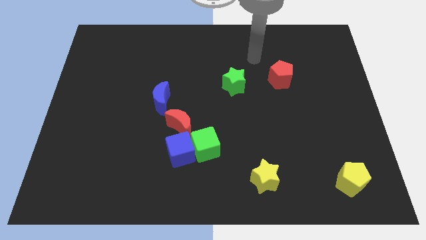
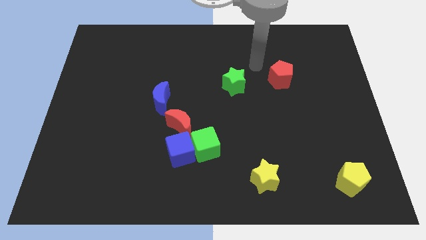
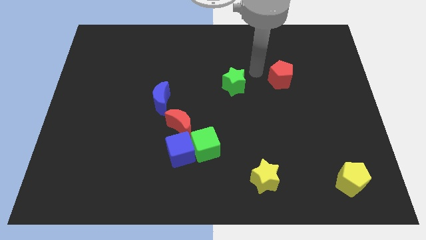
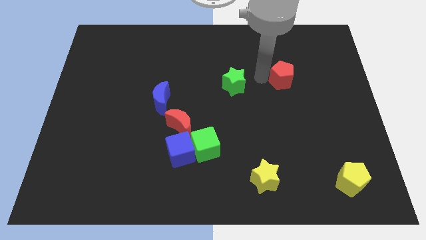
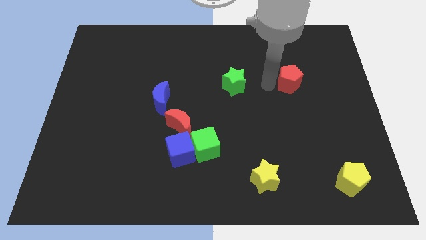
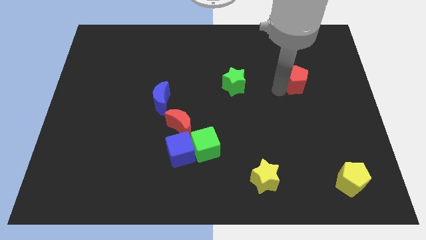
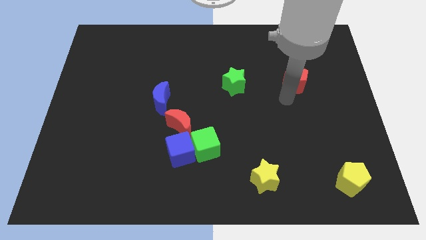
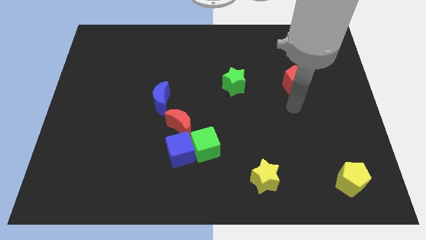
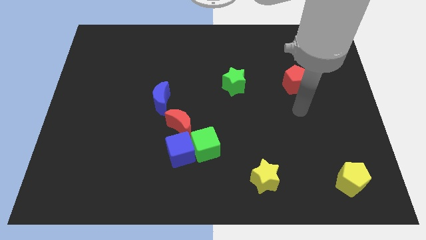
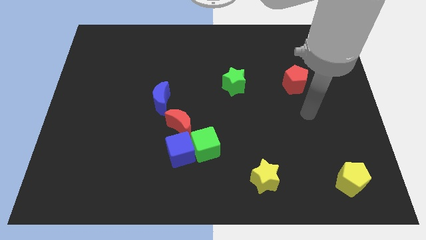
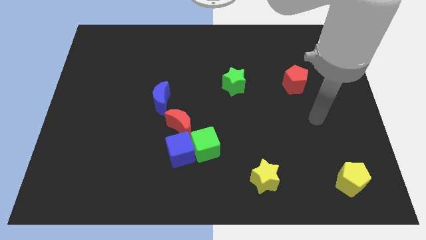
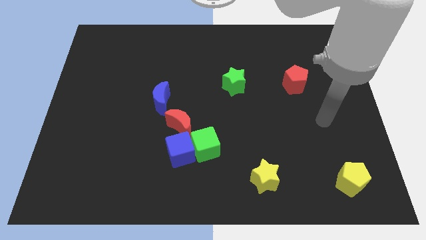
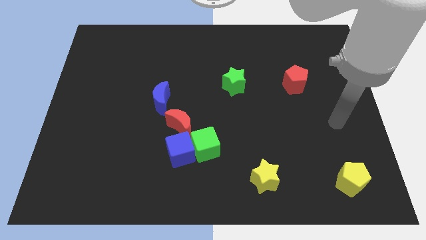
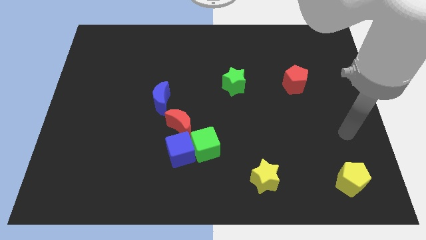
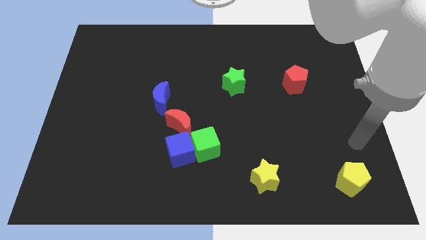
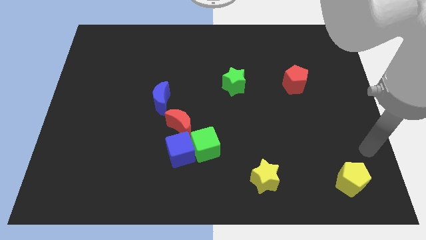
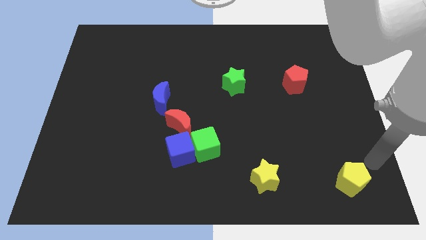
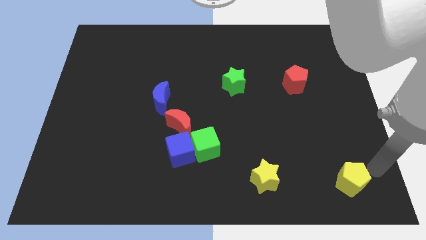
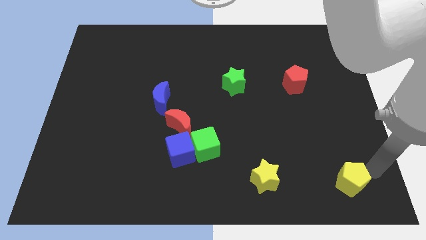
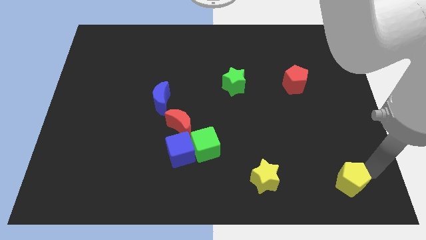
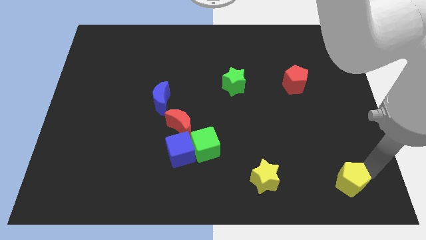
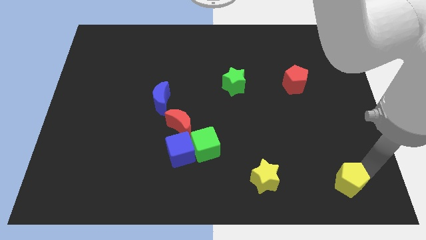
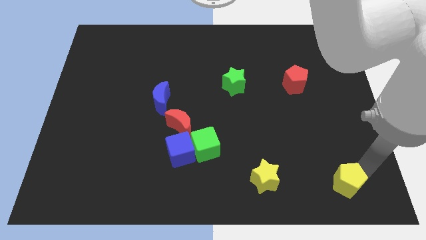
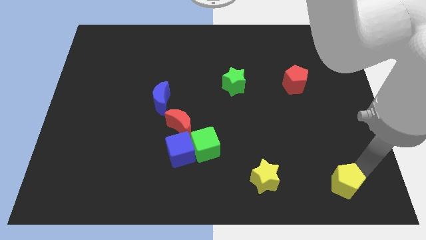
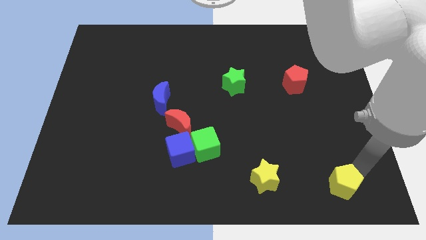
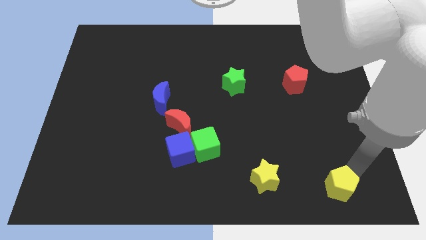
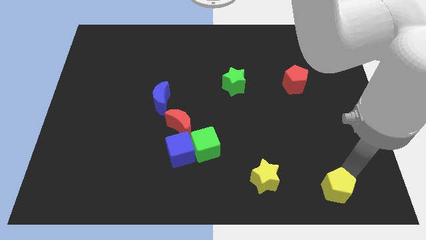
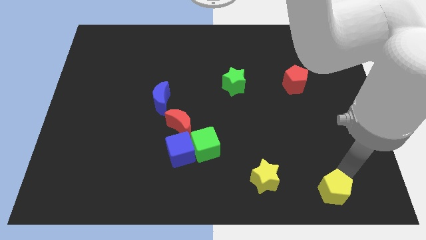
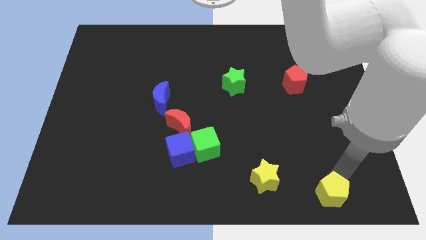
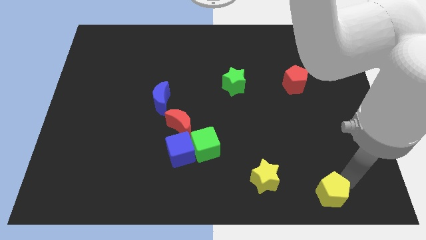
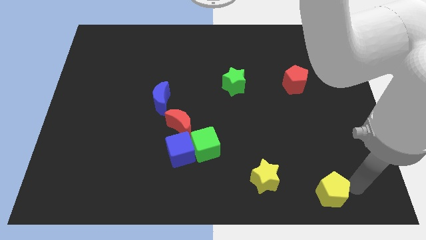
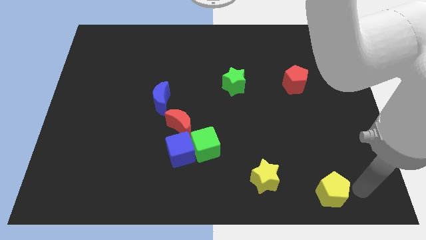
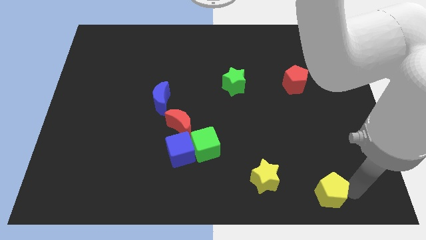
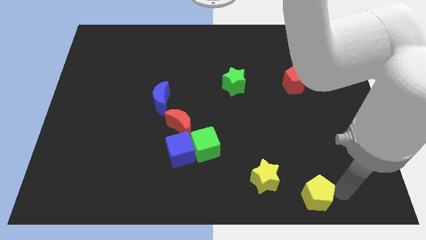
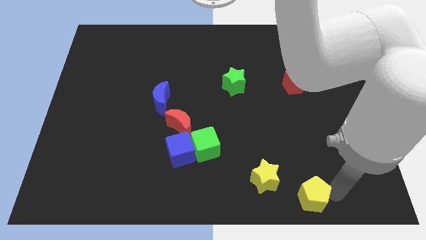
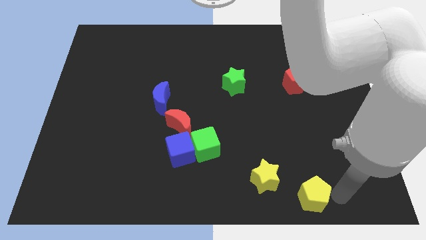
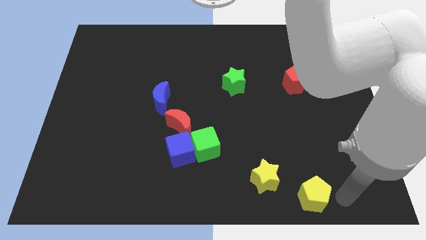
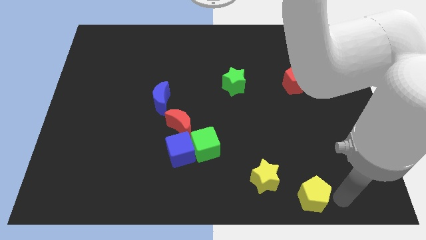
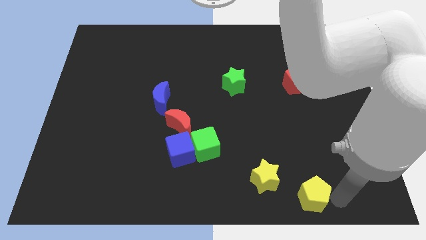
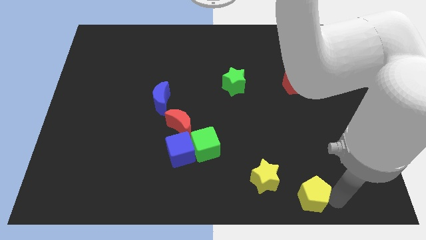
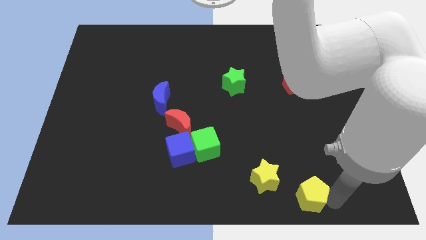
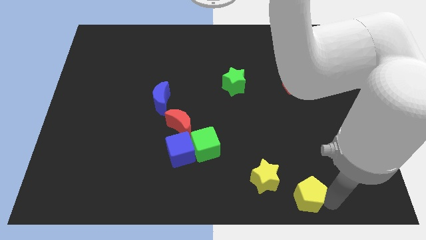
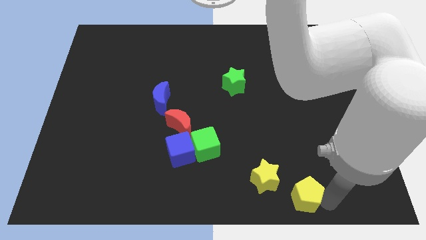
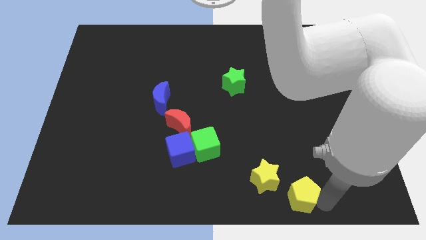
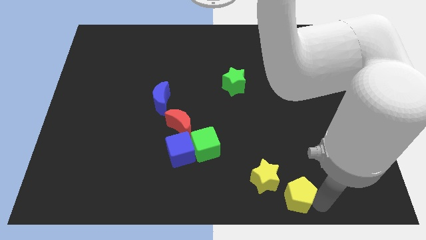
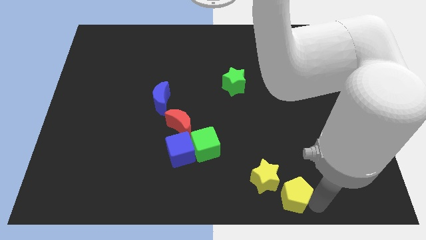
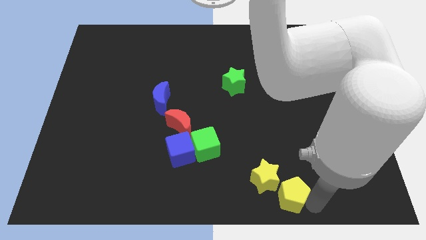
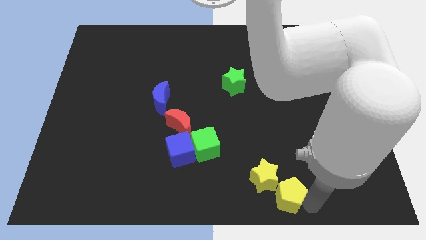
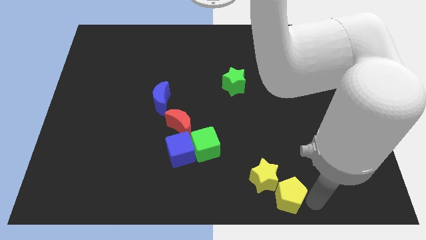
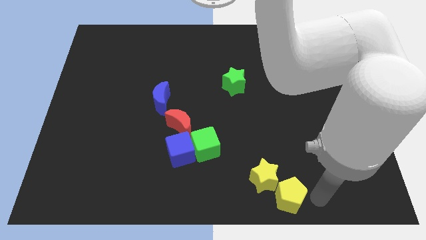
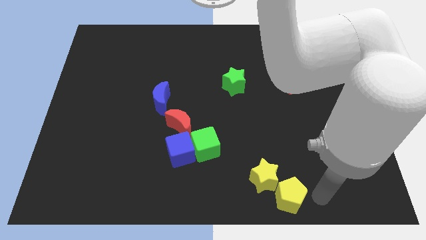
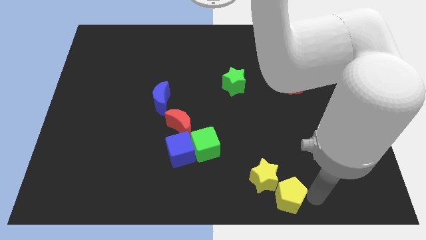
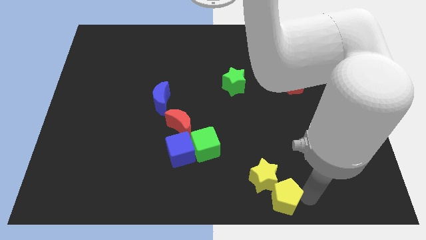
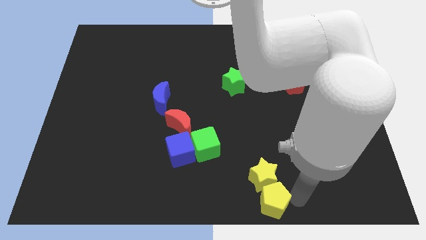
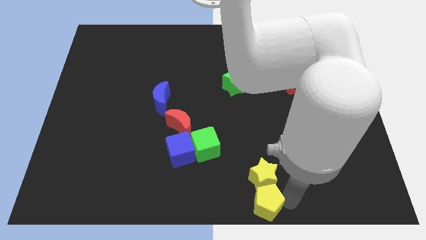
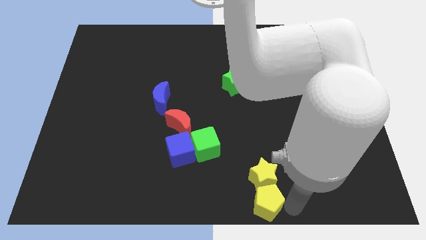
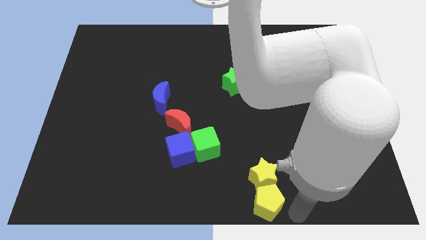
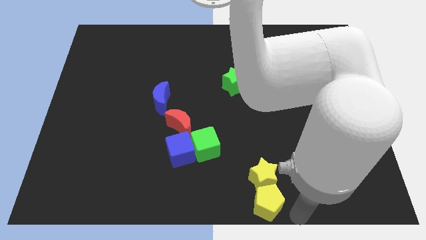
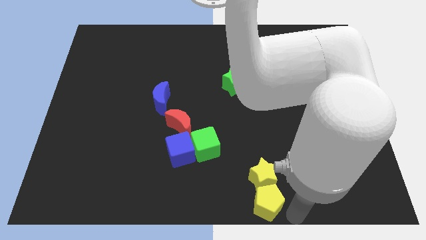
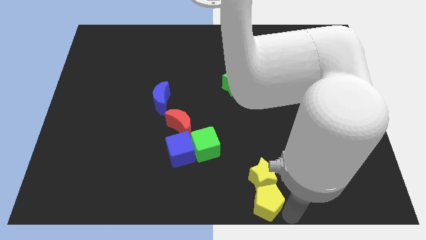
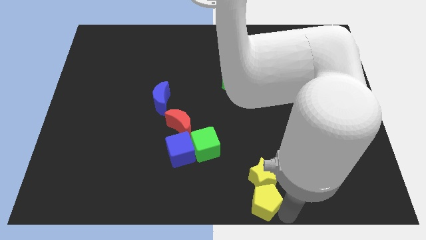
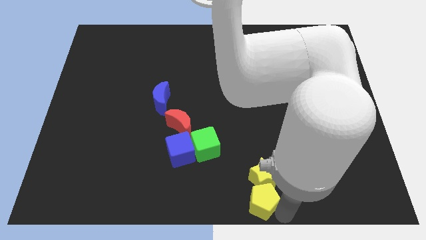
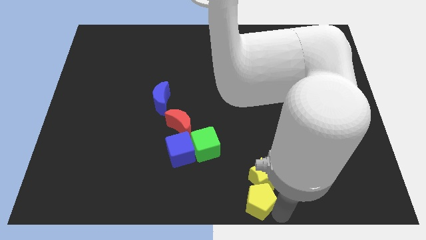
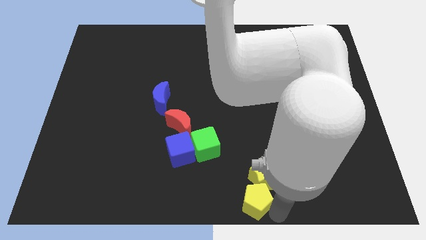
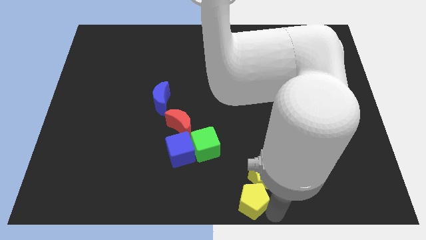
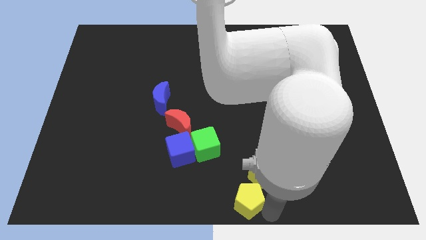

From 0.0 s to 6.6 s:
slide the yellow pentagon to the left

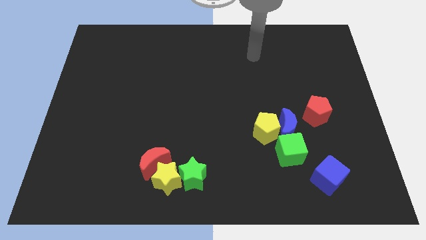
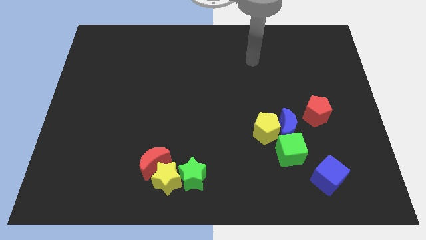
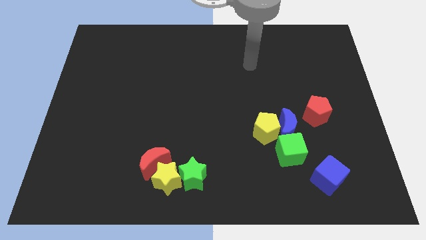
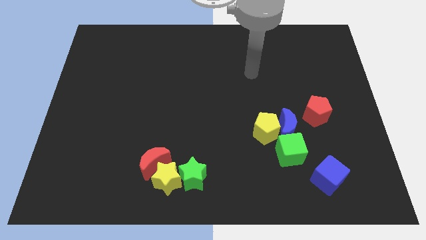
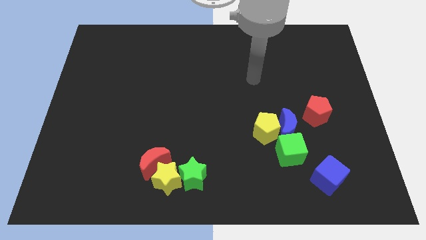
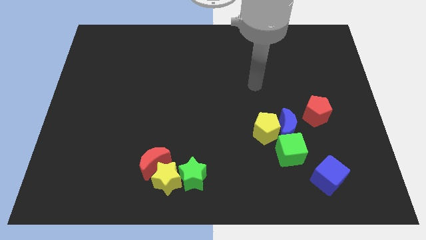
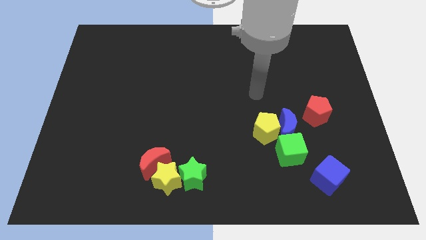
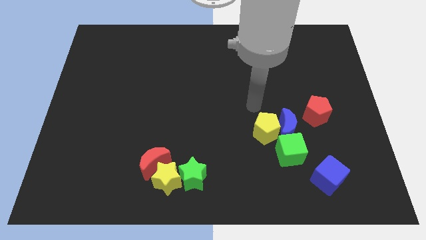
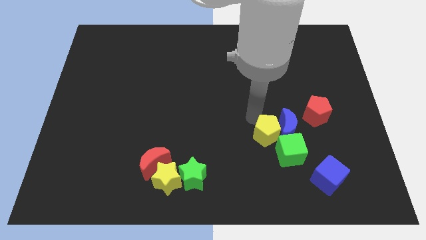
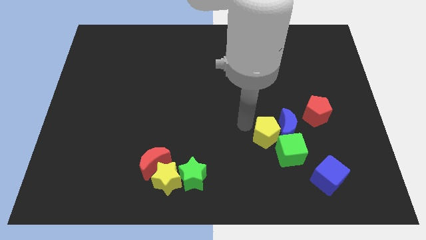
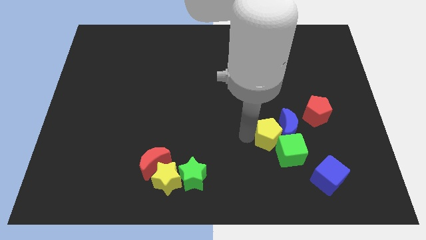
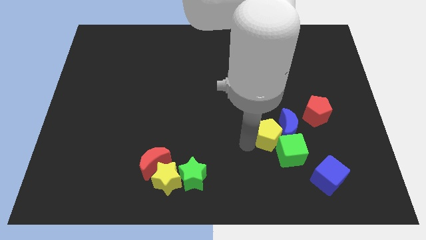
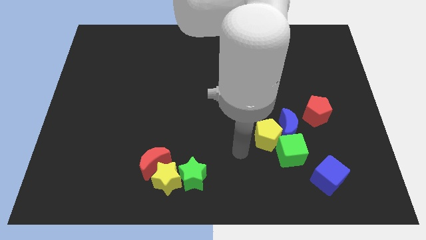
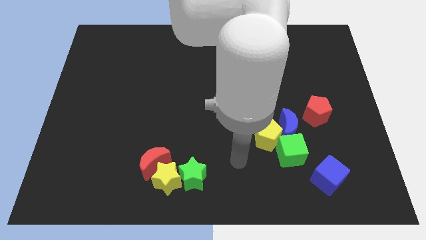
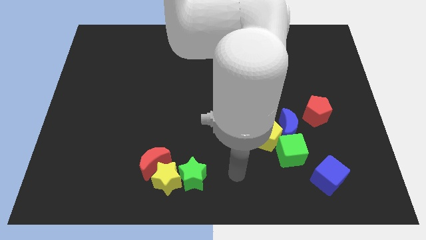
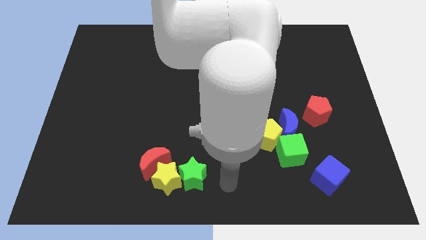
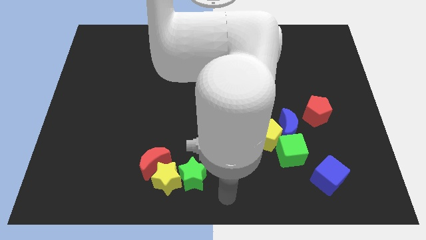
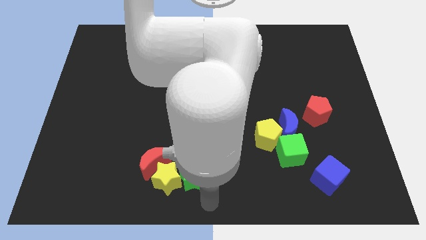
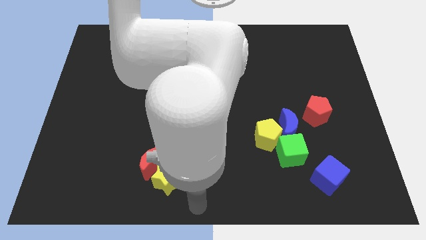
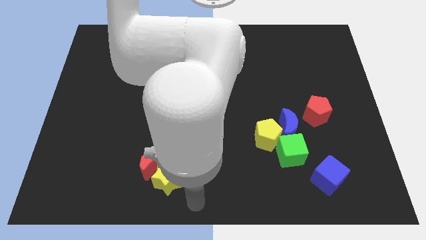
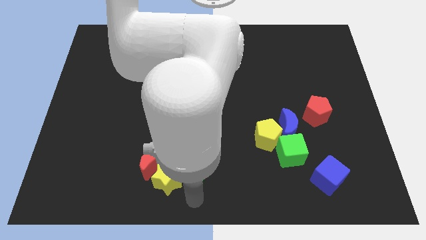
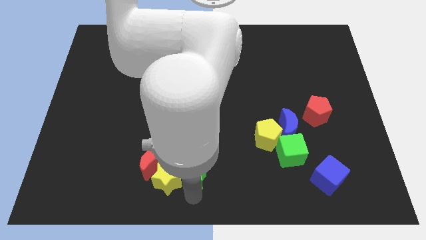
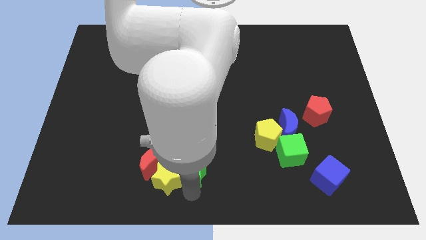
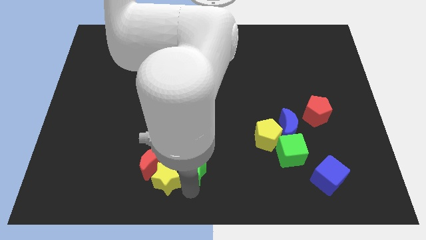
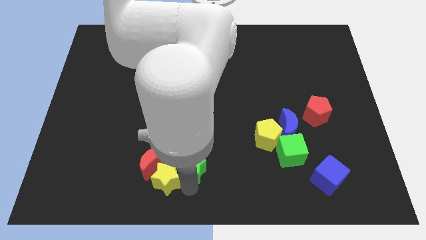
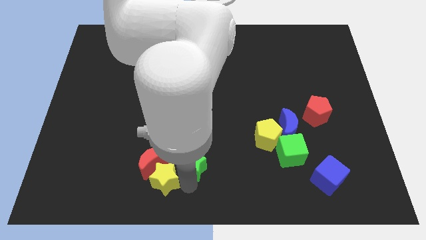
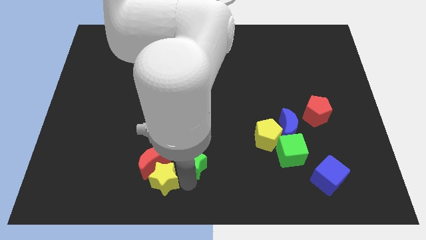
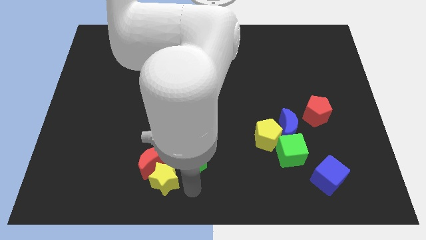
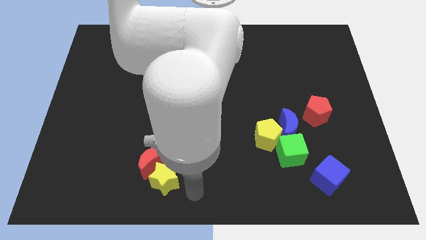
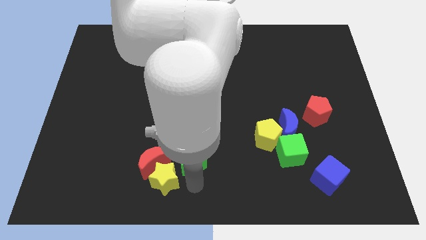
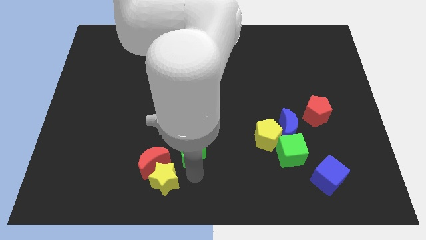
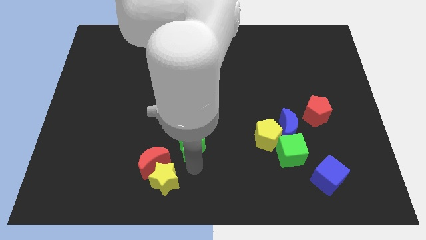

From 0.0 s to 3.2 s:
slightly push the green star upwards
